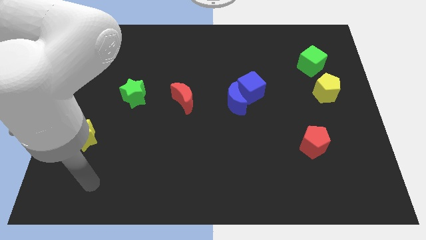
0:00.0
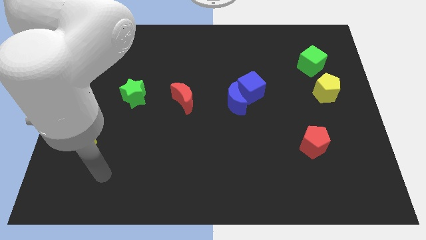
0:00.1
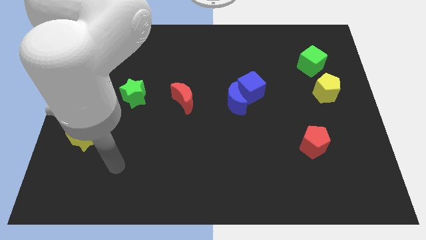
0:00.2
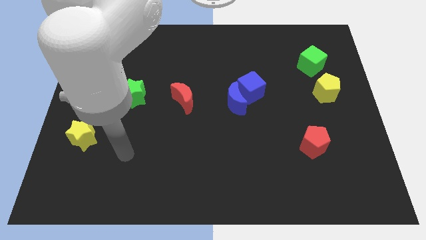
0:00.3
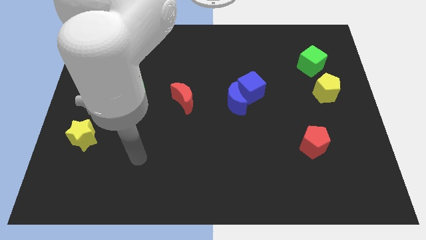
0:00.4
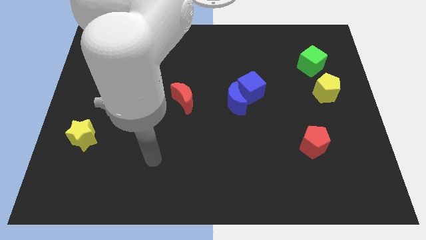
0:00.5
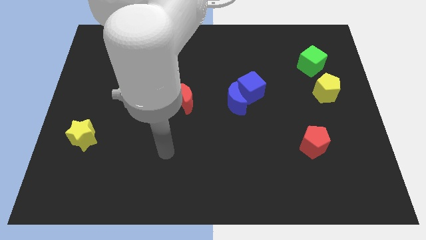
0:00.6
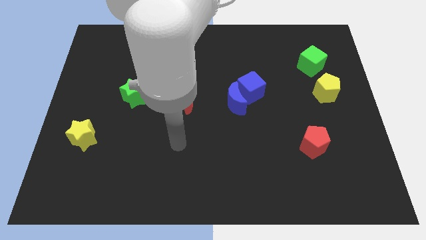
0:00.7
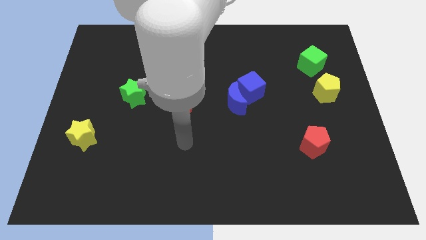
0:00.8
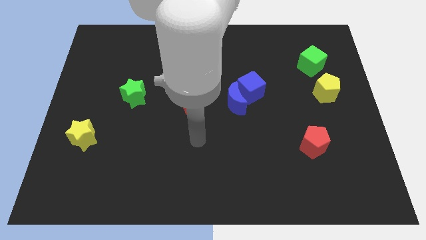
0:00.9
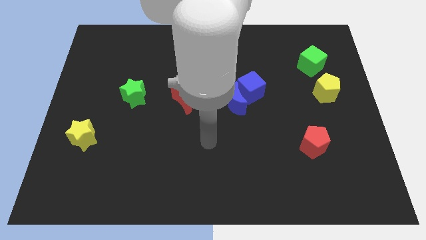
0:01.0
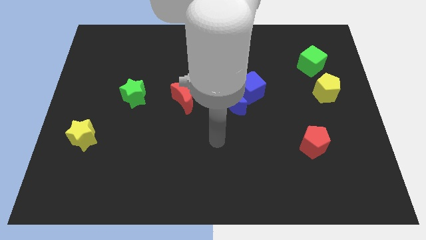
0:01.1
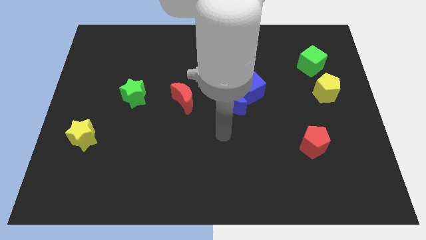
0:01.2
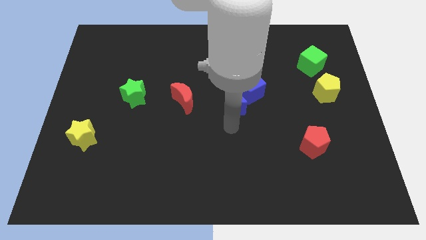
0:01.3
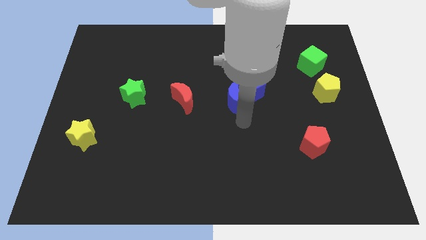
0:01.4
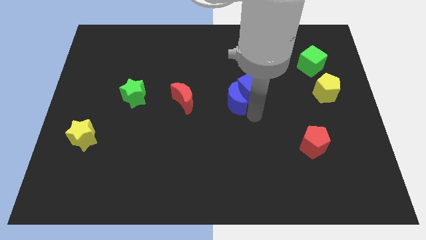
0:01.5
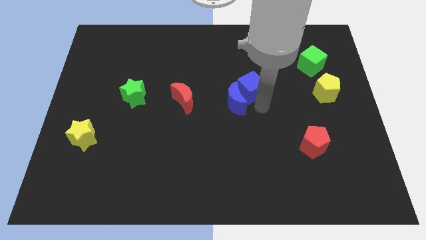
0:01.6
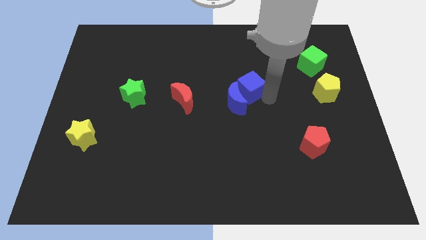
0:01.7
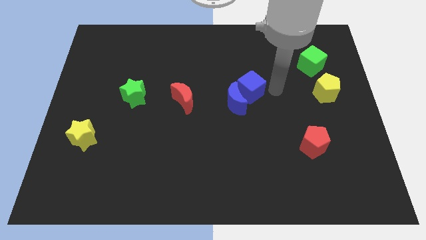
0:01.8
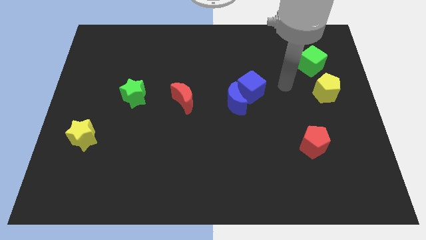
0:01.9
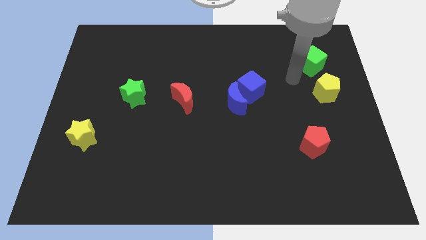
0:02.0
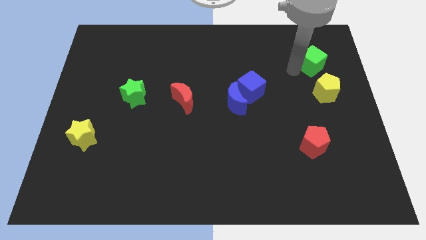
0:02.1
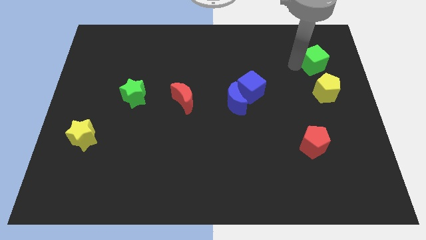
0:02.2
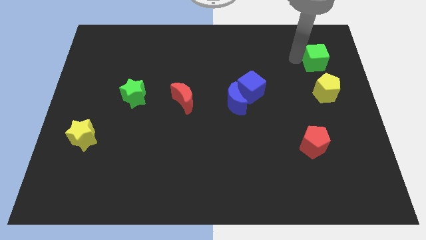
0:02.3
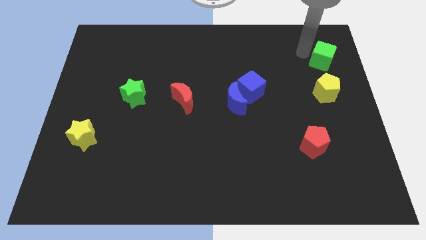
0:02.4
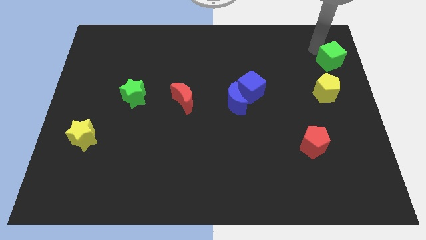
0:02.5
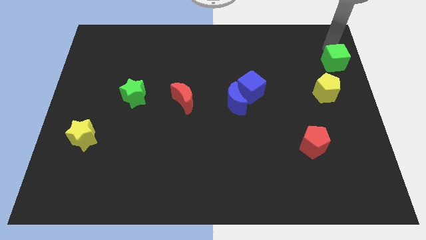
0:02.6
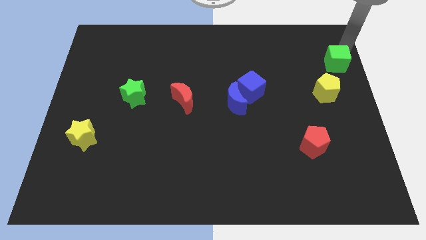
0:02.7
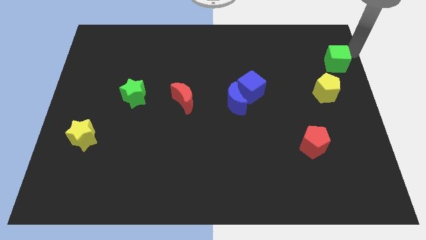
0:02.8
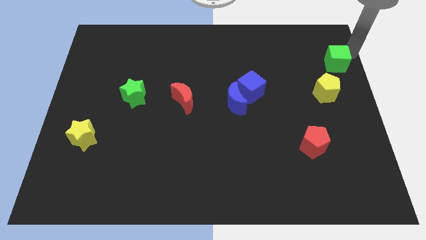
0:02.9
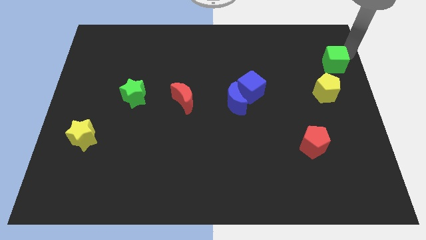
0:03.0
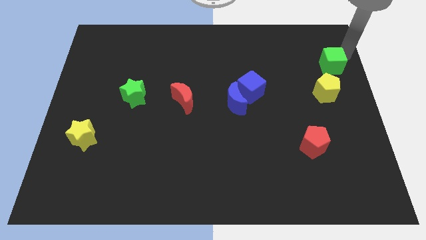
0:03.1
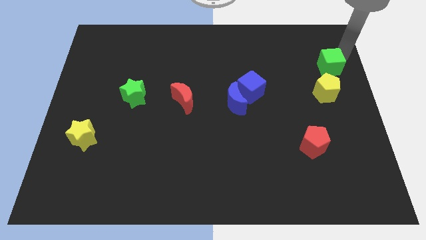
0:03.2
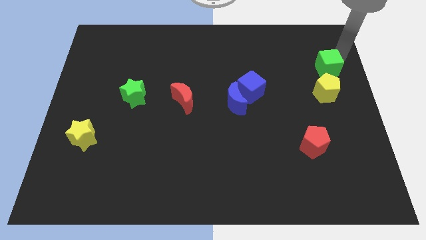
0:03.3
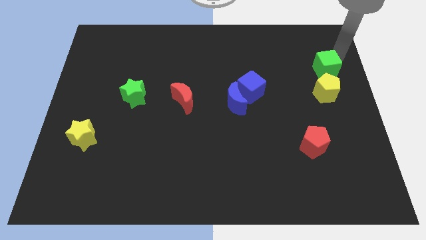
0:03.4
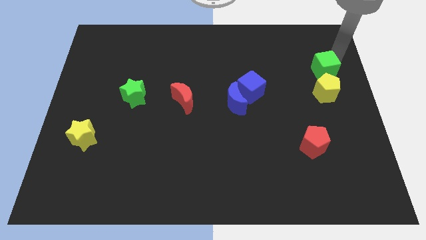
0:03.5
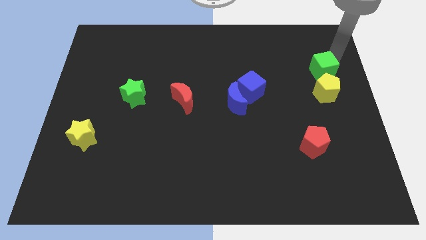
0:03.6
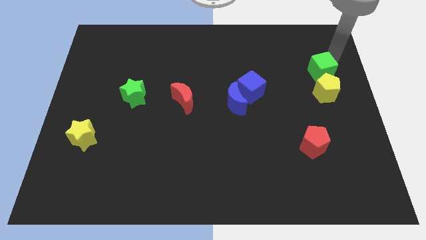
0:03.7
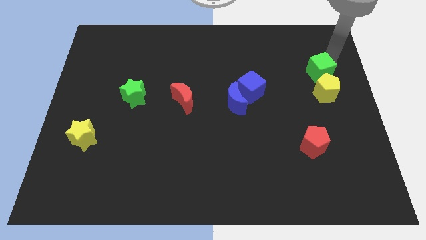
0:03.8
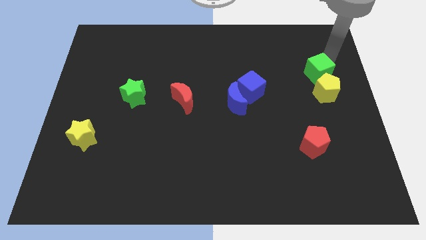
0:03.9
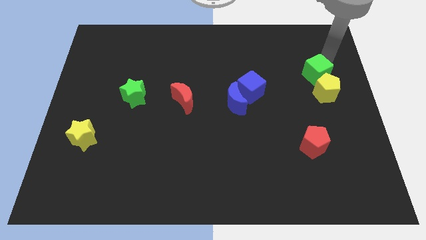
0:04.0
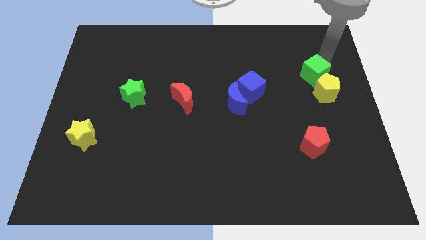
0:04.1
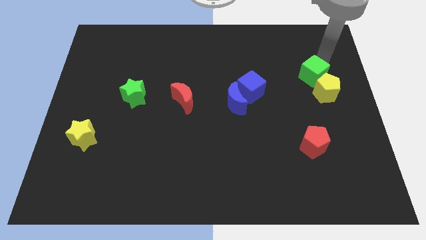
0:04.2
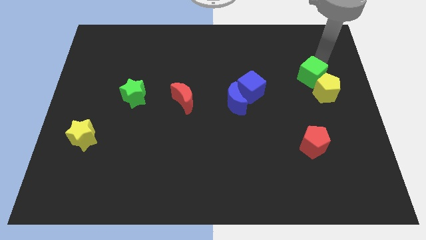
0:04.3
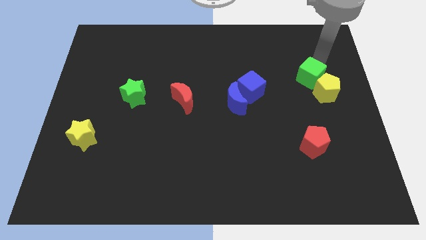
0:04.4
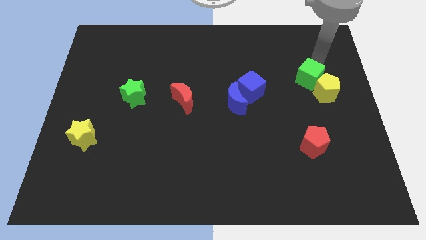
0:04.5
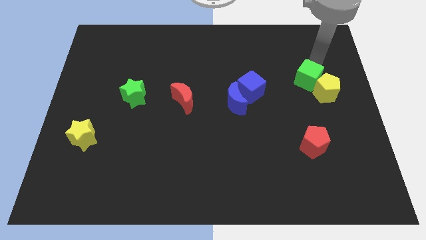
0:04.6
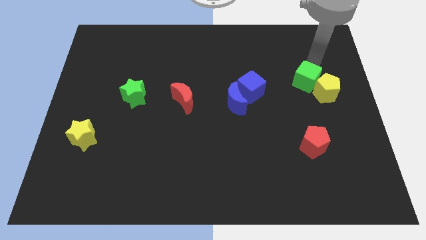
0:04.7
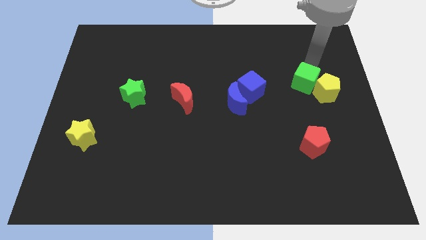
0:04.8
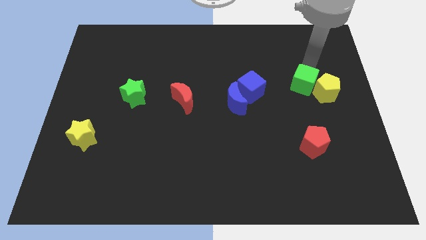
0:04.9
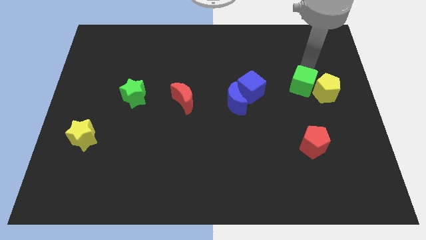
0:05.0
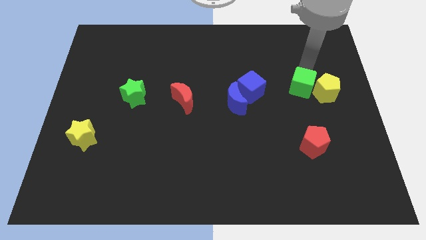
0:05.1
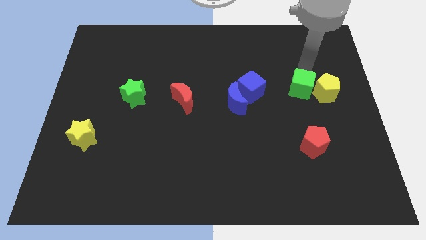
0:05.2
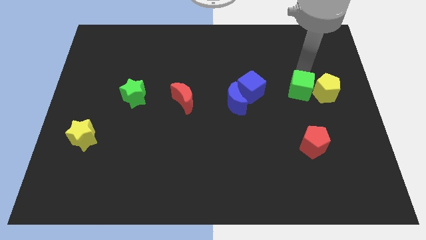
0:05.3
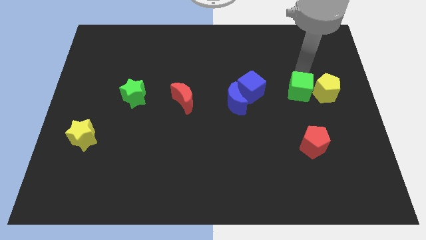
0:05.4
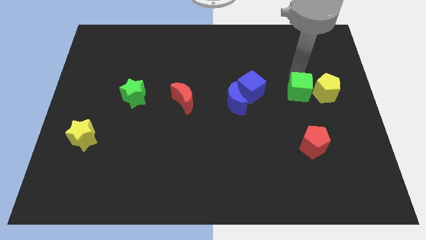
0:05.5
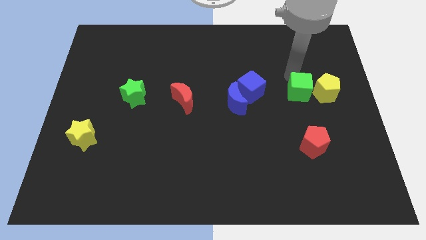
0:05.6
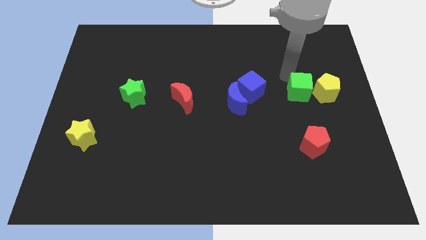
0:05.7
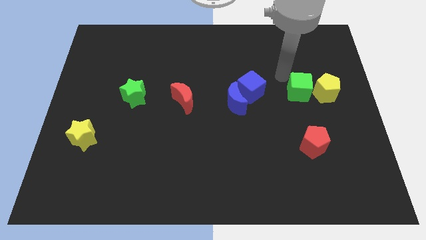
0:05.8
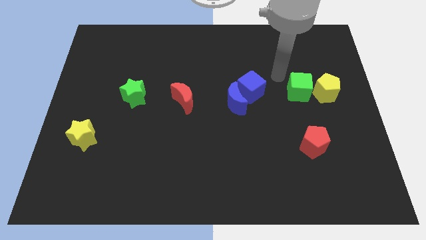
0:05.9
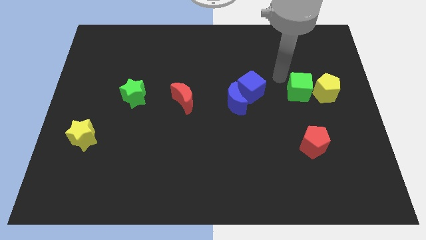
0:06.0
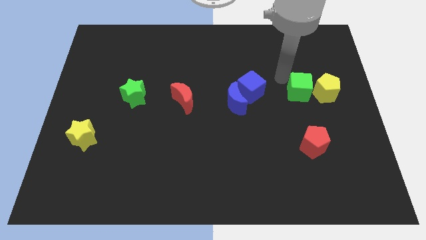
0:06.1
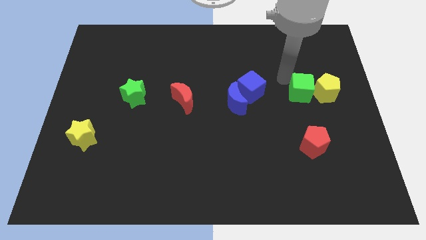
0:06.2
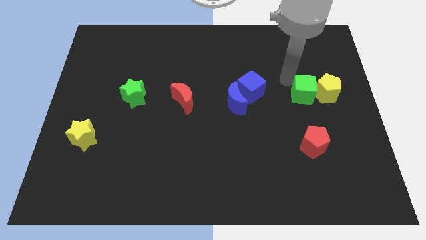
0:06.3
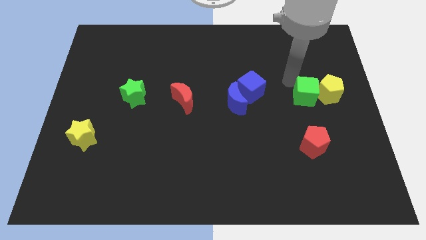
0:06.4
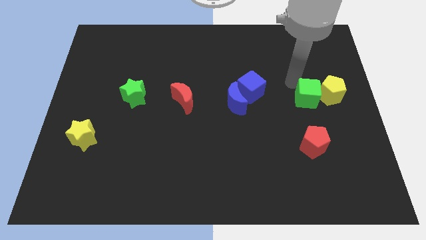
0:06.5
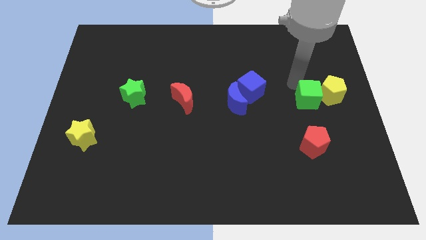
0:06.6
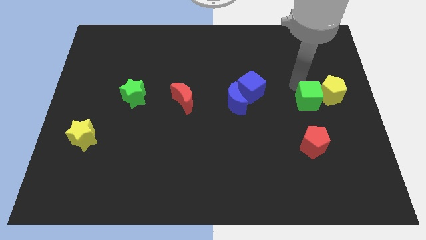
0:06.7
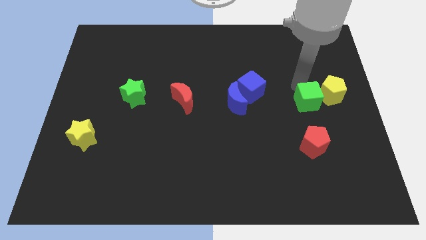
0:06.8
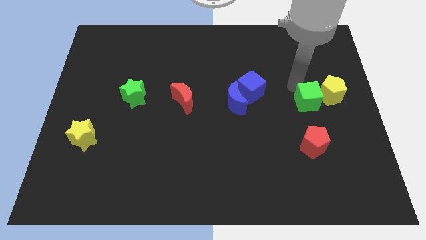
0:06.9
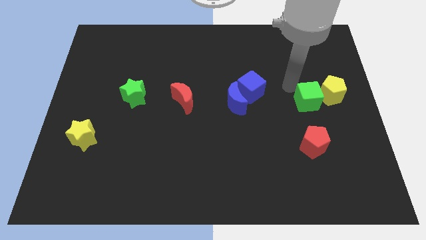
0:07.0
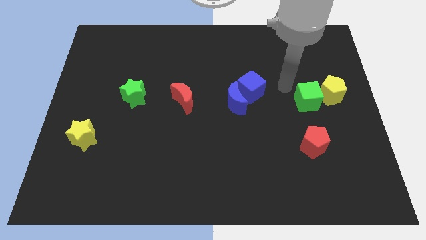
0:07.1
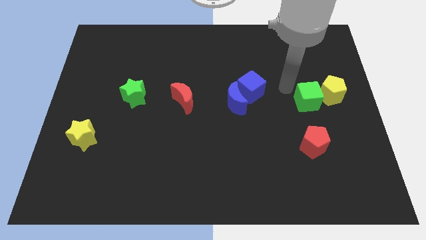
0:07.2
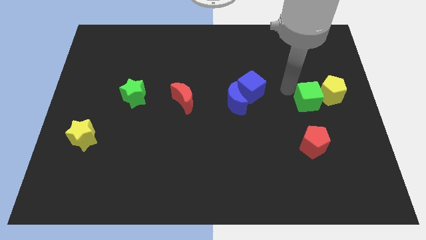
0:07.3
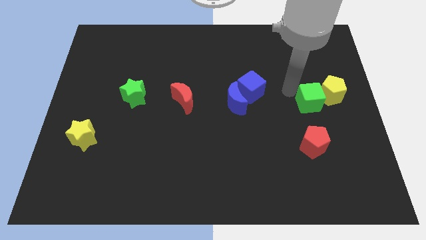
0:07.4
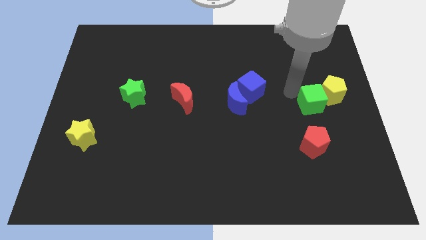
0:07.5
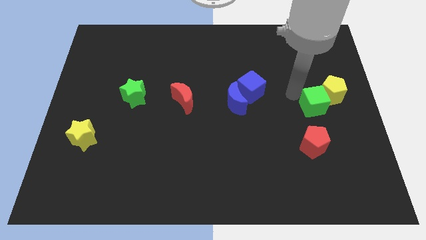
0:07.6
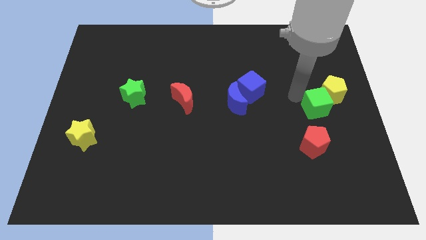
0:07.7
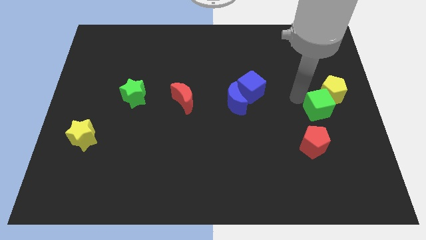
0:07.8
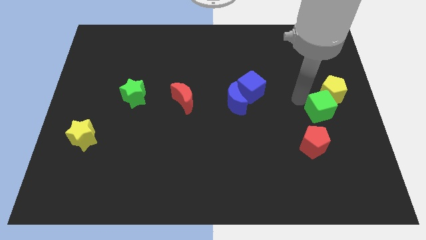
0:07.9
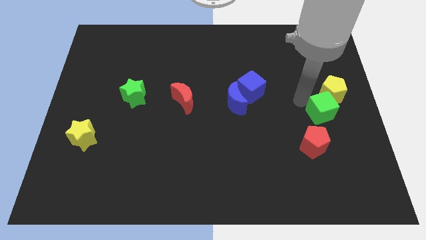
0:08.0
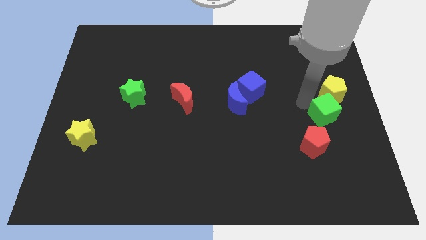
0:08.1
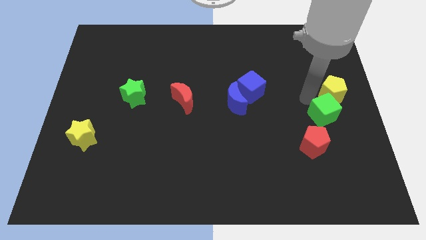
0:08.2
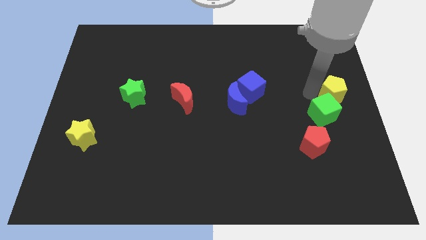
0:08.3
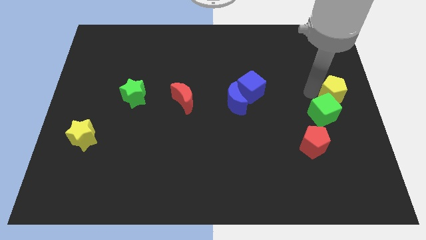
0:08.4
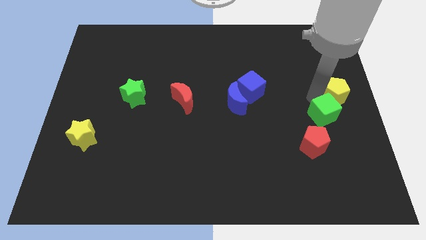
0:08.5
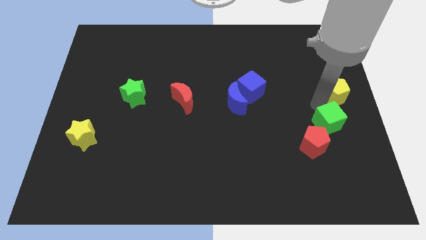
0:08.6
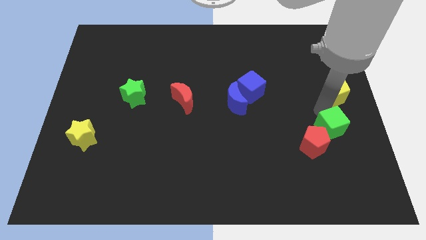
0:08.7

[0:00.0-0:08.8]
push the green cube downwards
